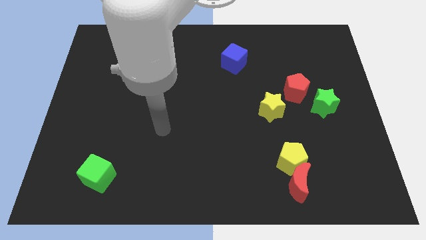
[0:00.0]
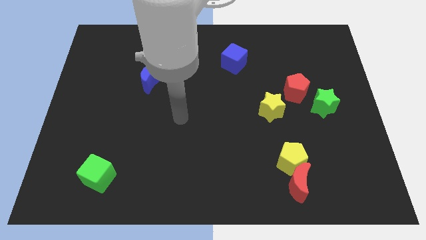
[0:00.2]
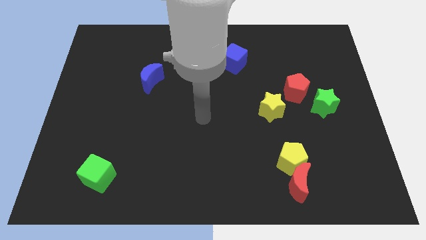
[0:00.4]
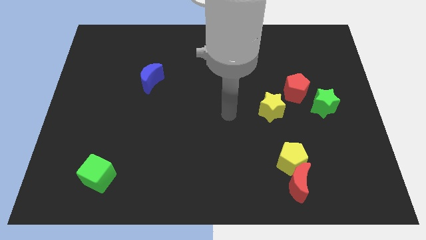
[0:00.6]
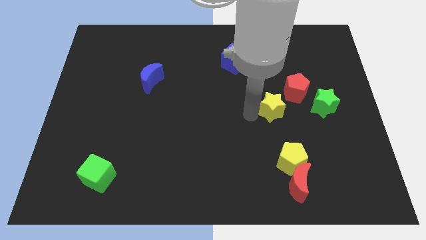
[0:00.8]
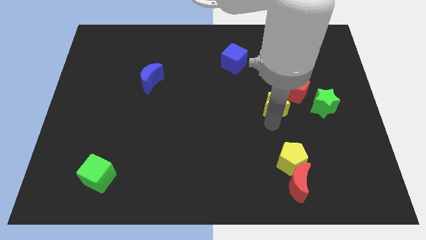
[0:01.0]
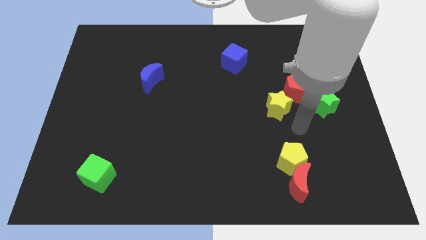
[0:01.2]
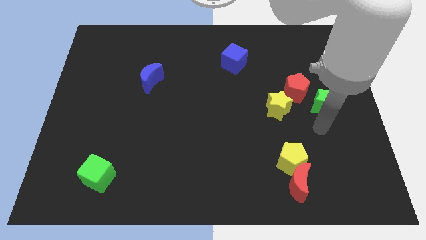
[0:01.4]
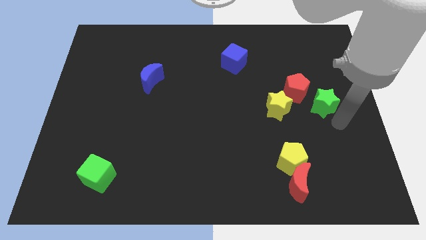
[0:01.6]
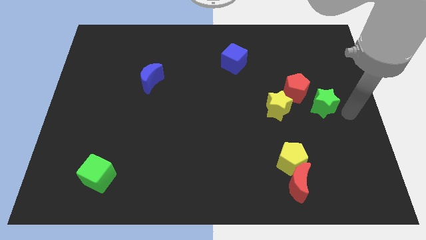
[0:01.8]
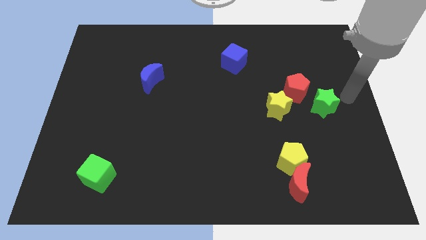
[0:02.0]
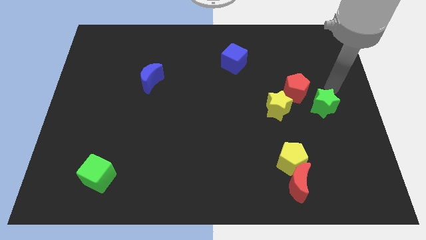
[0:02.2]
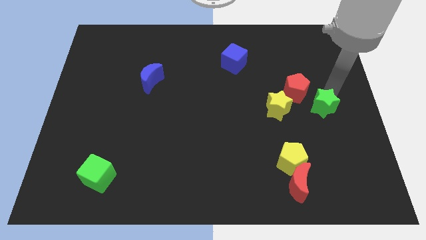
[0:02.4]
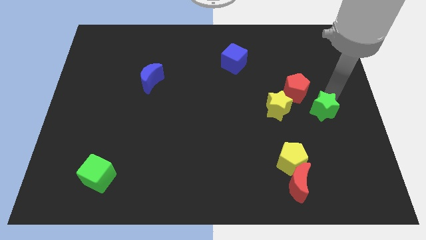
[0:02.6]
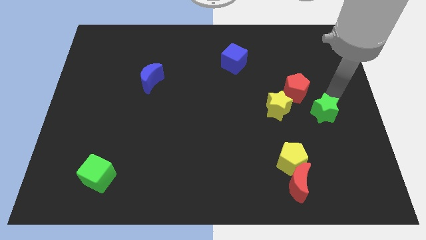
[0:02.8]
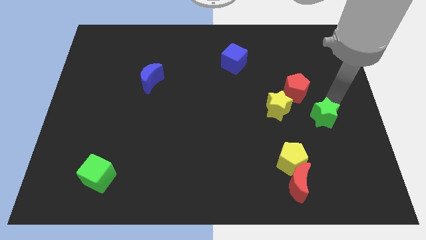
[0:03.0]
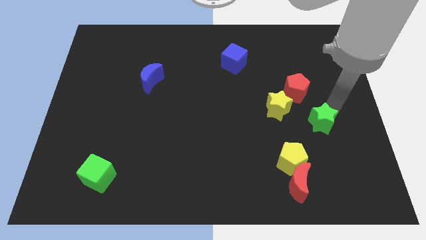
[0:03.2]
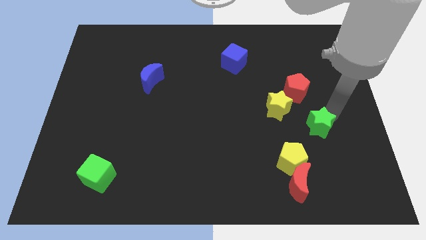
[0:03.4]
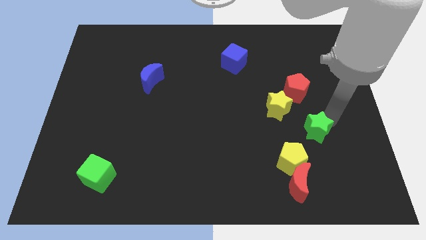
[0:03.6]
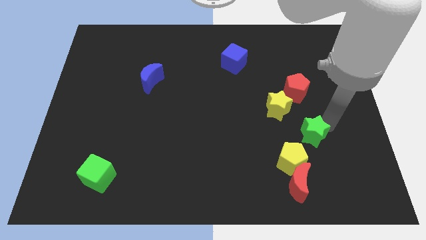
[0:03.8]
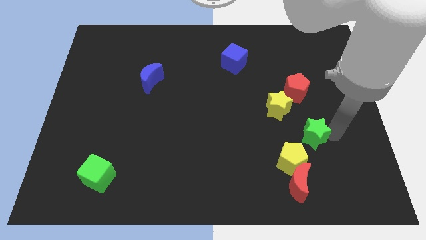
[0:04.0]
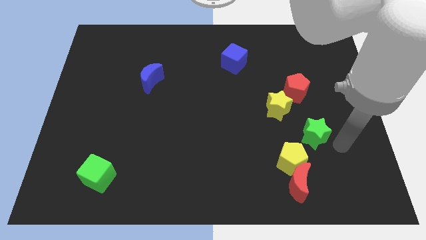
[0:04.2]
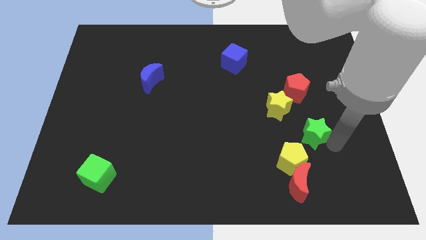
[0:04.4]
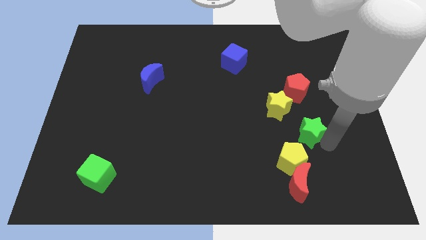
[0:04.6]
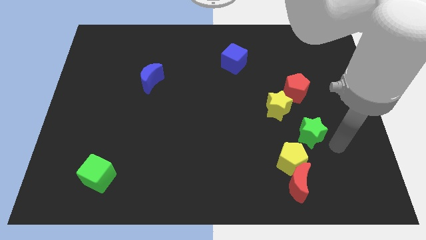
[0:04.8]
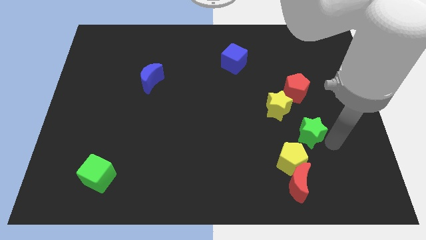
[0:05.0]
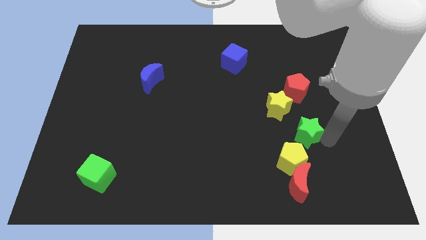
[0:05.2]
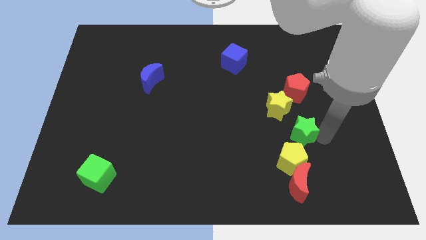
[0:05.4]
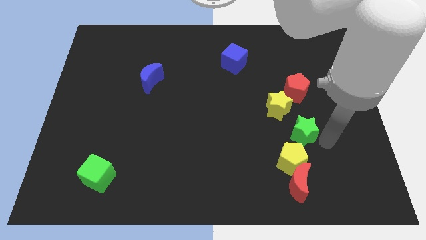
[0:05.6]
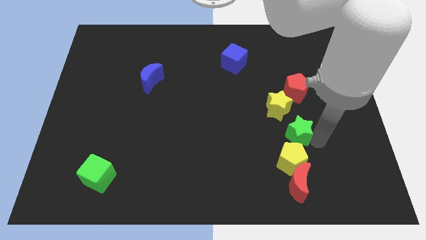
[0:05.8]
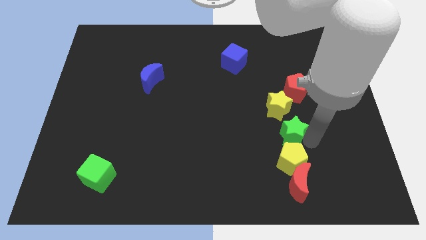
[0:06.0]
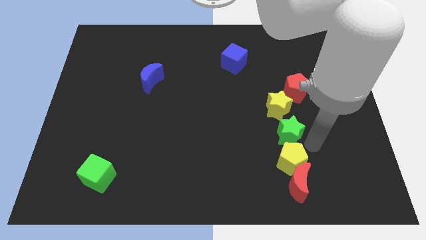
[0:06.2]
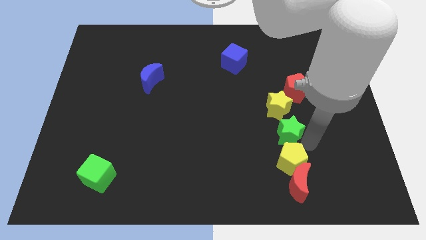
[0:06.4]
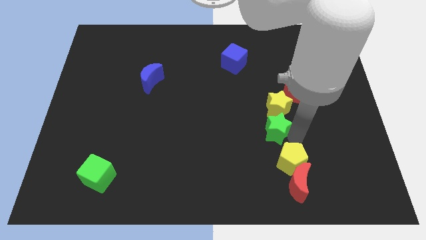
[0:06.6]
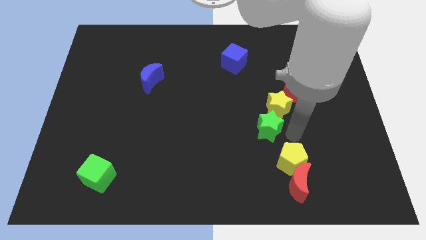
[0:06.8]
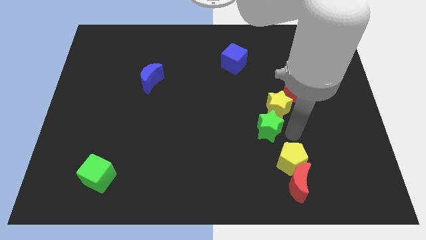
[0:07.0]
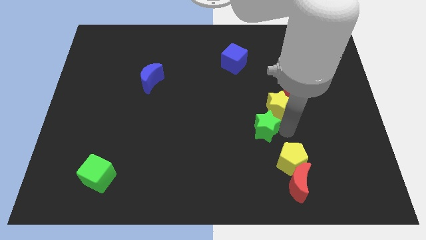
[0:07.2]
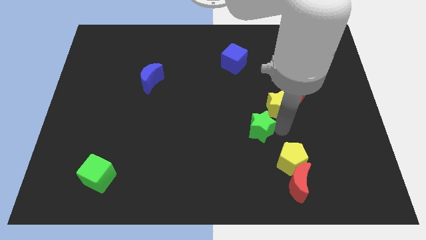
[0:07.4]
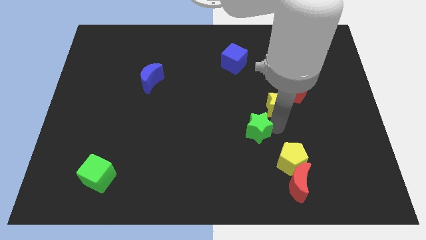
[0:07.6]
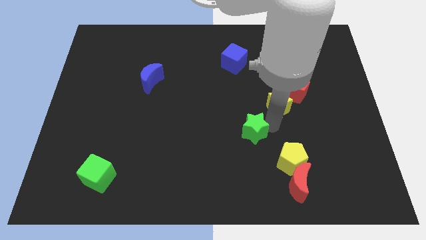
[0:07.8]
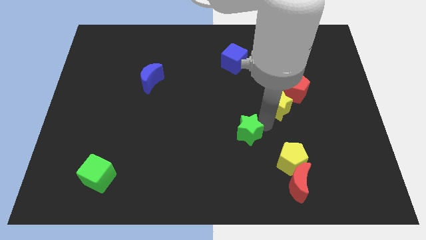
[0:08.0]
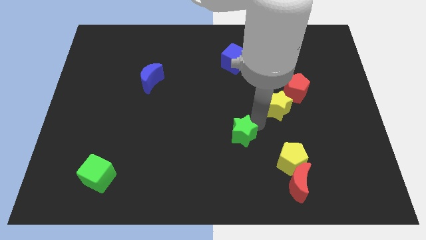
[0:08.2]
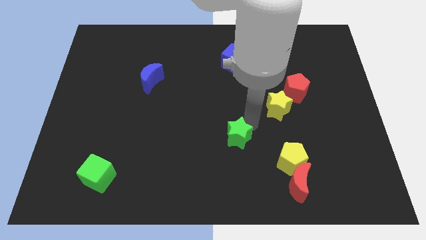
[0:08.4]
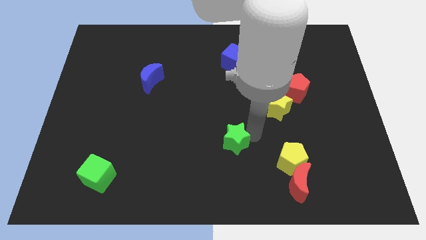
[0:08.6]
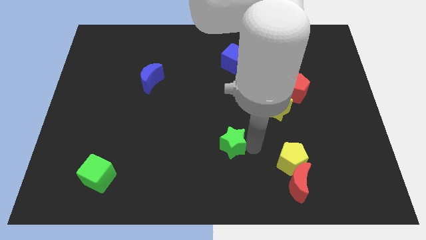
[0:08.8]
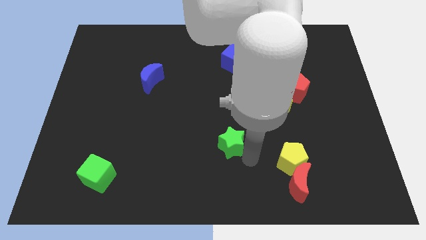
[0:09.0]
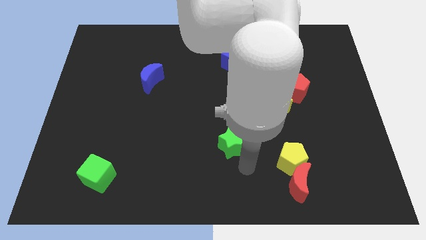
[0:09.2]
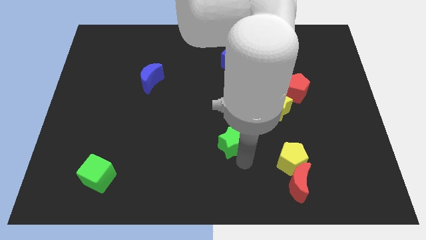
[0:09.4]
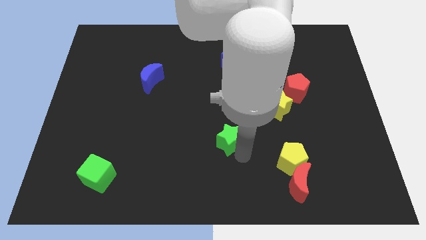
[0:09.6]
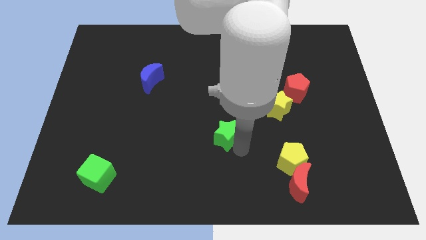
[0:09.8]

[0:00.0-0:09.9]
move the green star left

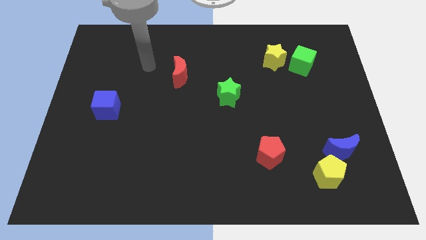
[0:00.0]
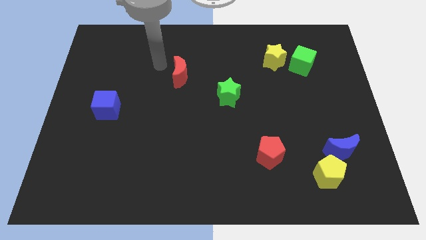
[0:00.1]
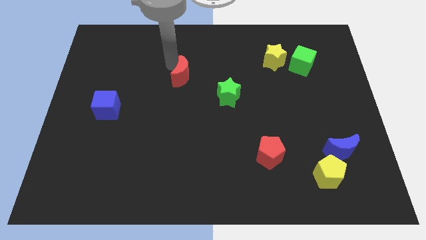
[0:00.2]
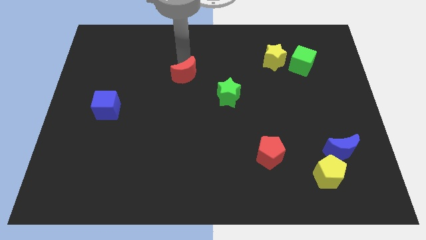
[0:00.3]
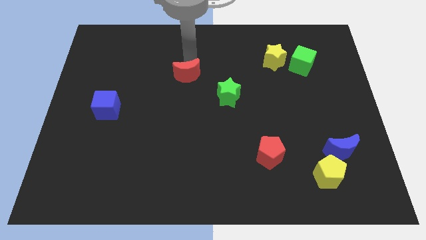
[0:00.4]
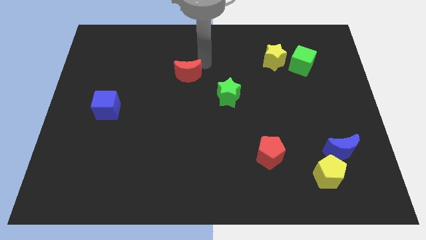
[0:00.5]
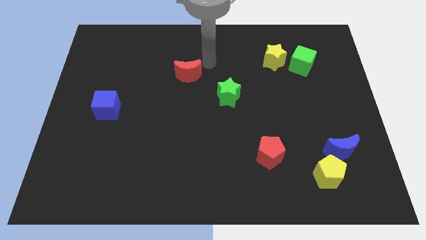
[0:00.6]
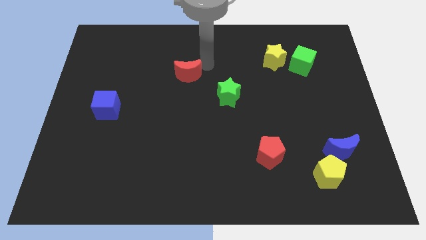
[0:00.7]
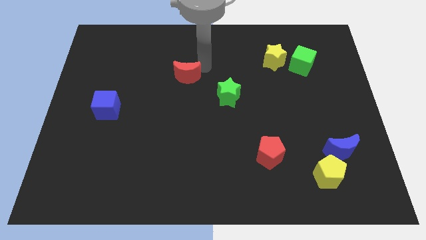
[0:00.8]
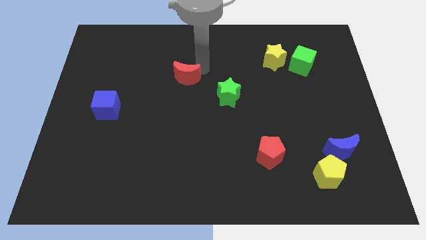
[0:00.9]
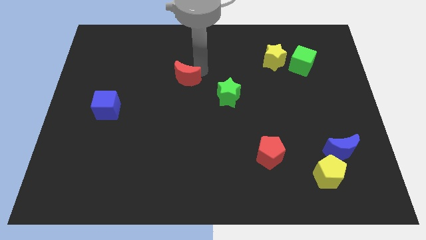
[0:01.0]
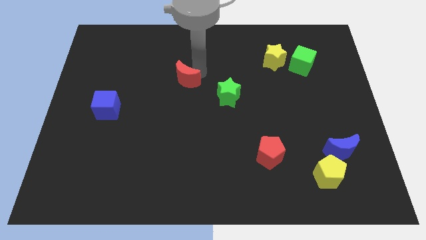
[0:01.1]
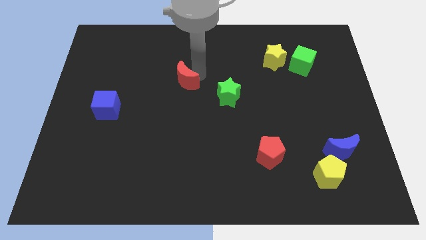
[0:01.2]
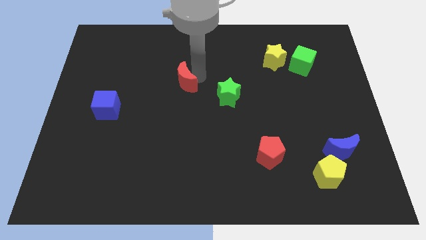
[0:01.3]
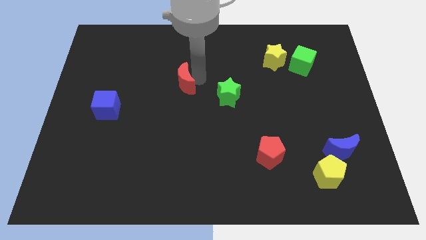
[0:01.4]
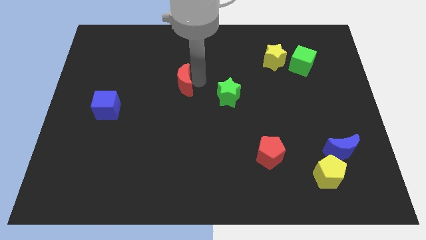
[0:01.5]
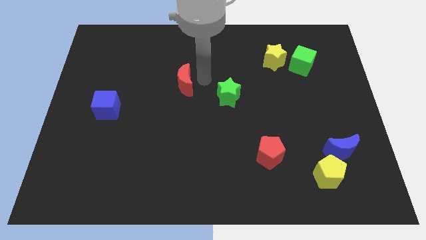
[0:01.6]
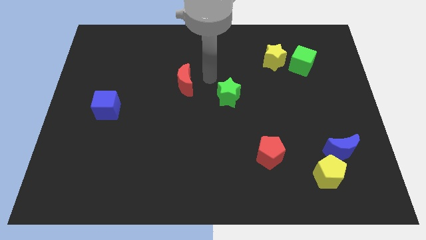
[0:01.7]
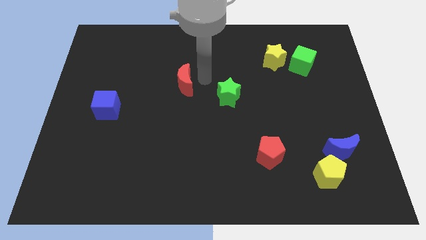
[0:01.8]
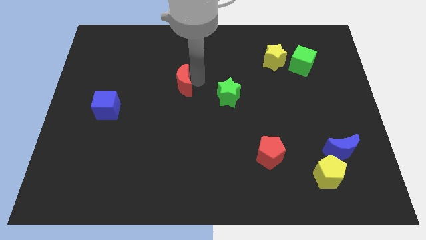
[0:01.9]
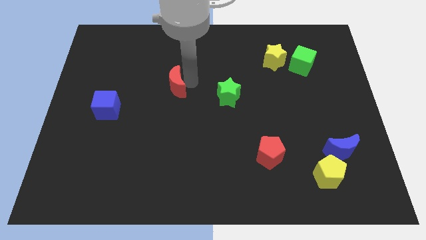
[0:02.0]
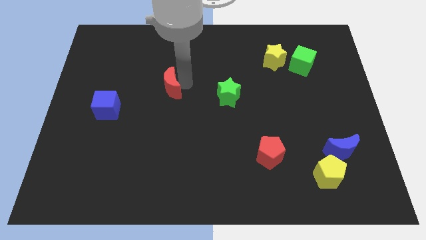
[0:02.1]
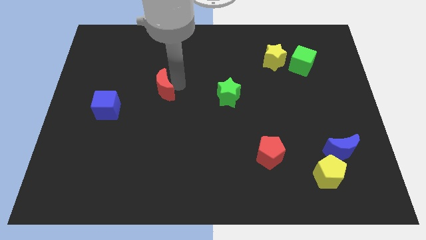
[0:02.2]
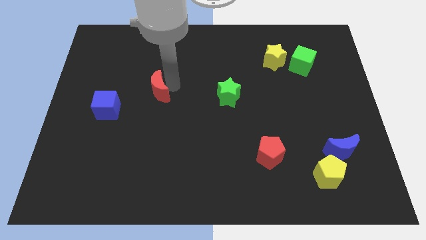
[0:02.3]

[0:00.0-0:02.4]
move the red moon down and to the left diagonally a little

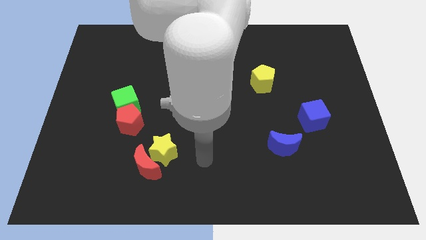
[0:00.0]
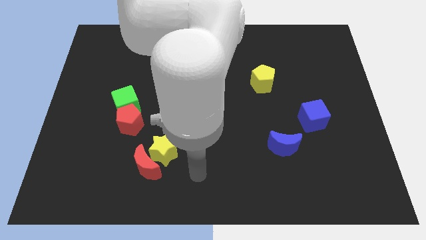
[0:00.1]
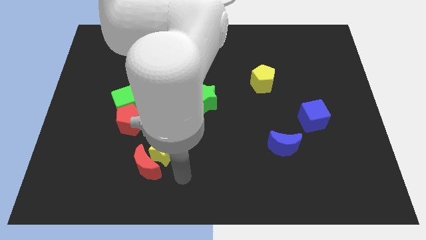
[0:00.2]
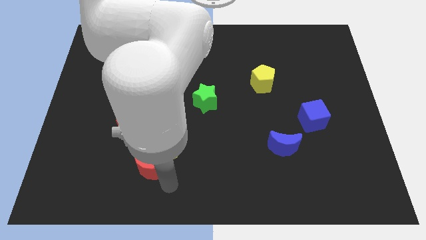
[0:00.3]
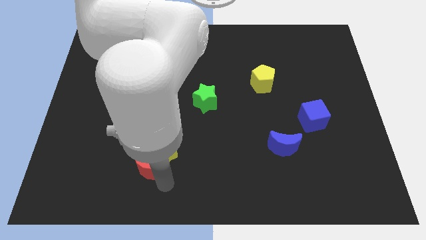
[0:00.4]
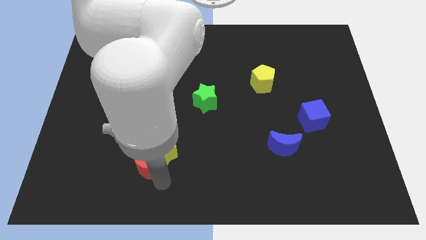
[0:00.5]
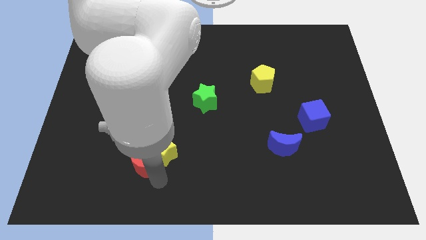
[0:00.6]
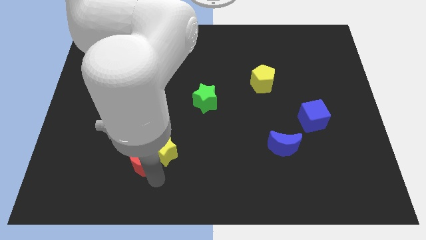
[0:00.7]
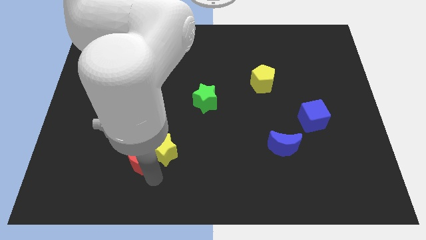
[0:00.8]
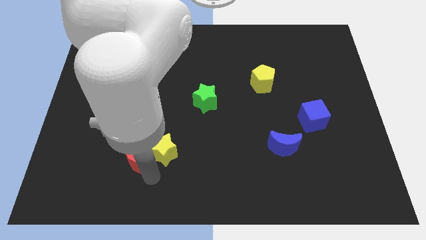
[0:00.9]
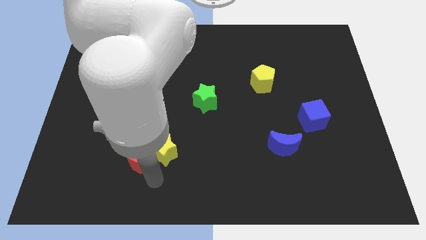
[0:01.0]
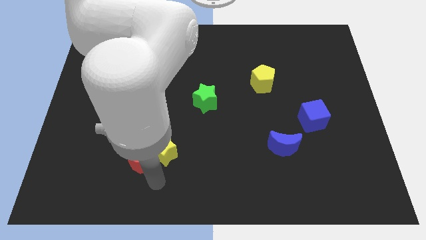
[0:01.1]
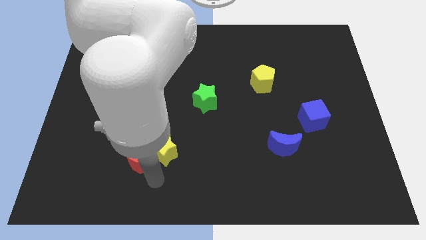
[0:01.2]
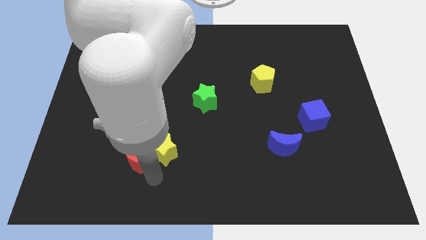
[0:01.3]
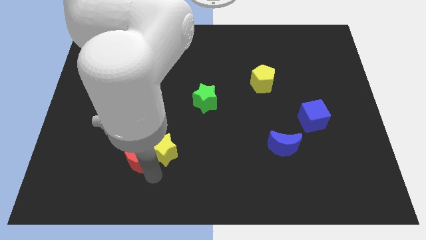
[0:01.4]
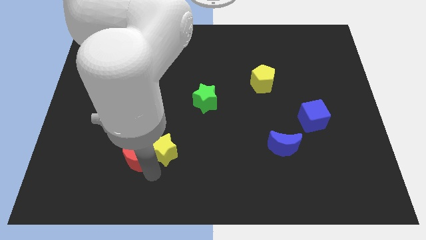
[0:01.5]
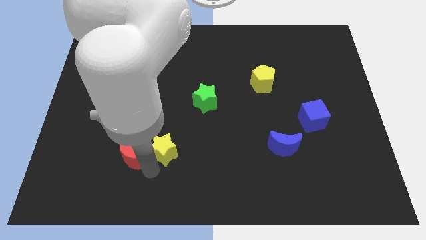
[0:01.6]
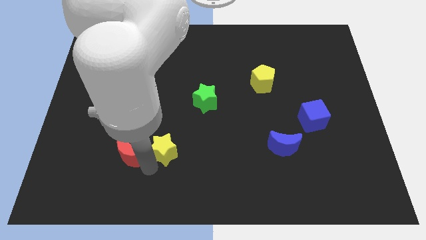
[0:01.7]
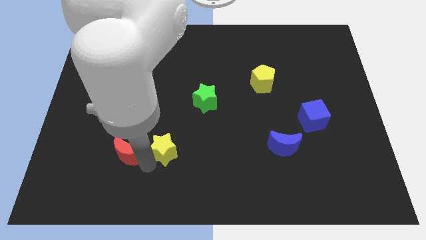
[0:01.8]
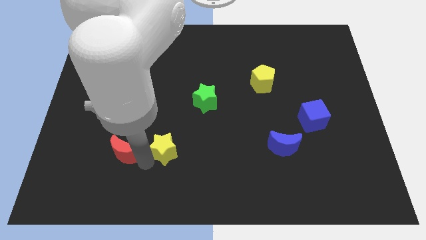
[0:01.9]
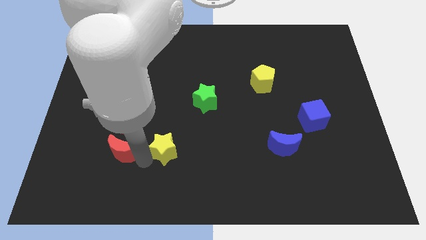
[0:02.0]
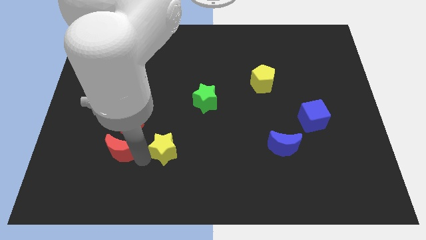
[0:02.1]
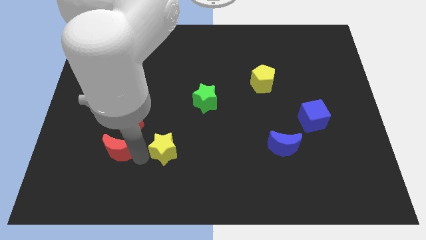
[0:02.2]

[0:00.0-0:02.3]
move the red moon slightly upwards and then to the left
